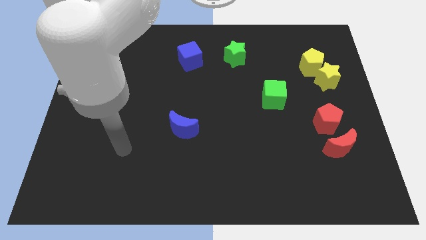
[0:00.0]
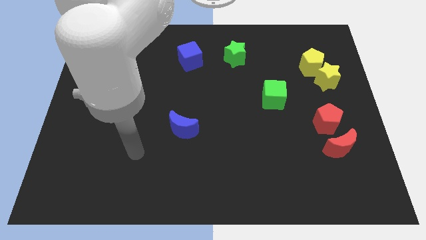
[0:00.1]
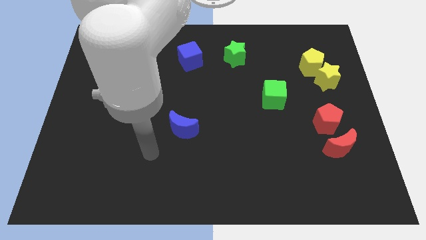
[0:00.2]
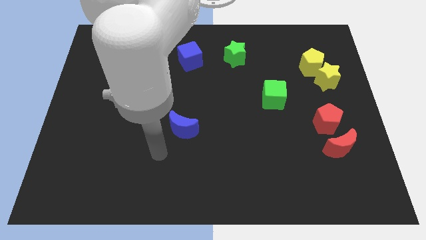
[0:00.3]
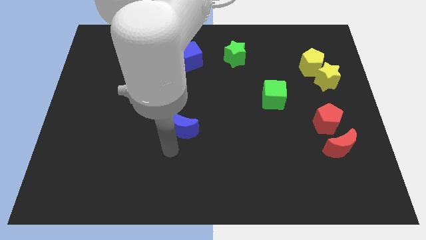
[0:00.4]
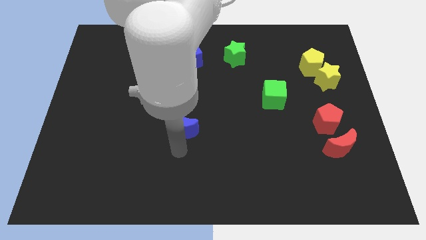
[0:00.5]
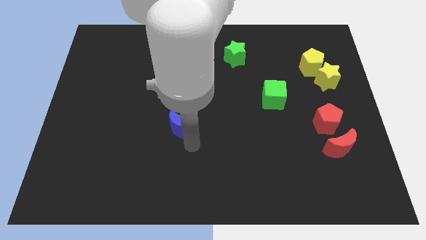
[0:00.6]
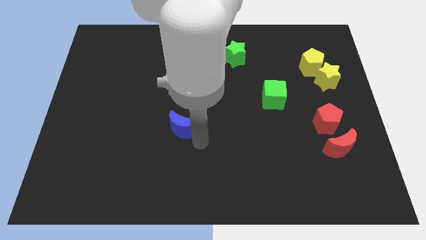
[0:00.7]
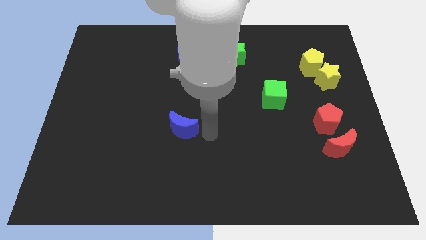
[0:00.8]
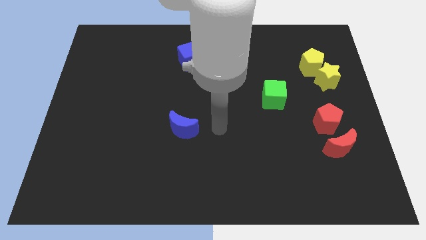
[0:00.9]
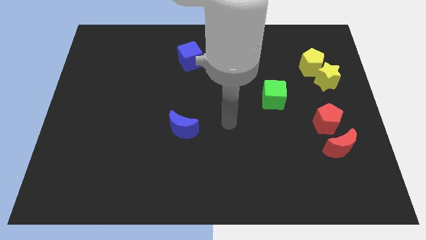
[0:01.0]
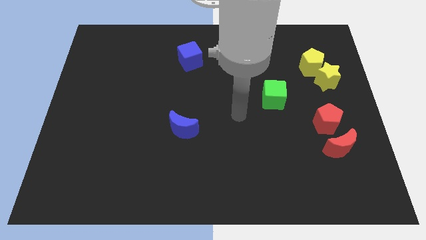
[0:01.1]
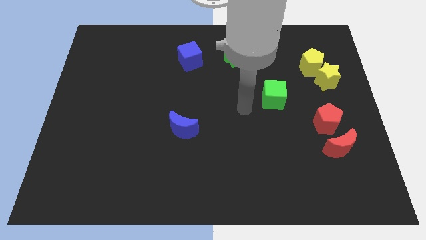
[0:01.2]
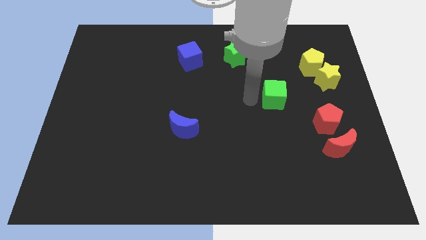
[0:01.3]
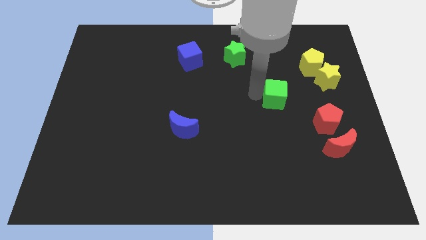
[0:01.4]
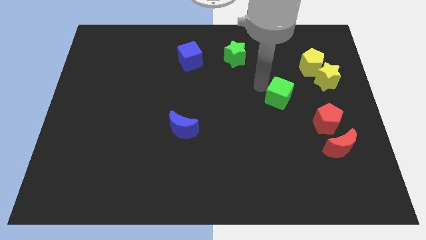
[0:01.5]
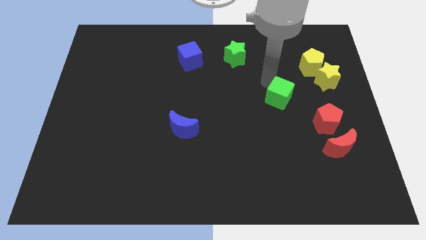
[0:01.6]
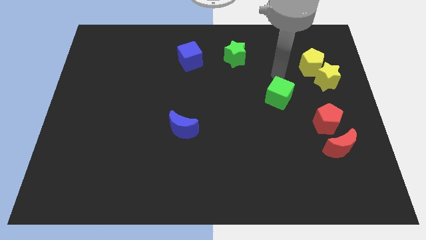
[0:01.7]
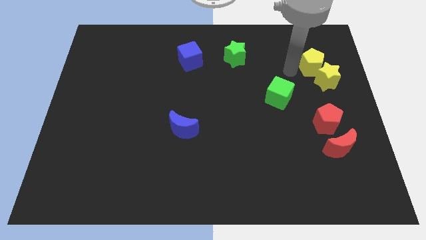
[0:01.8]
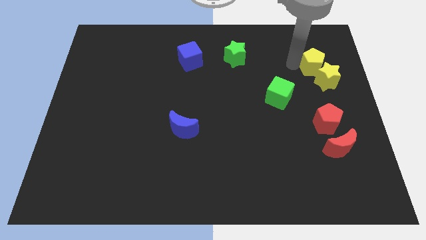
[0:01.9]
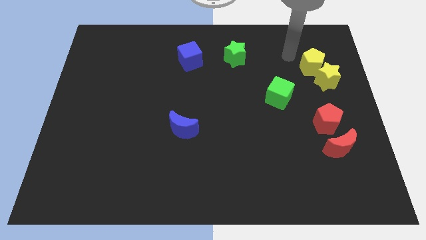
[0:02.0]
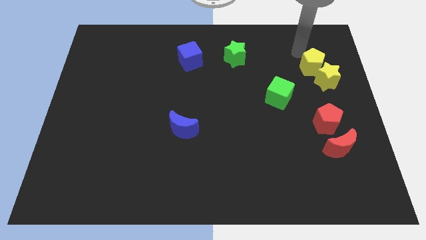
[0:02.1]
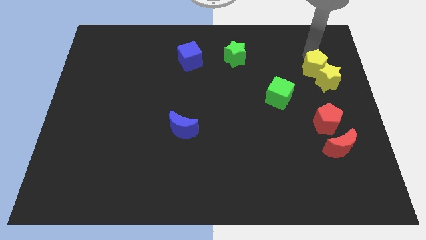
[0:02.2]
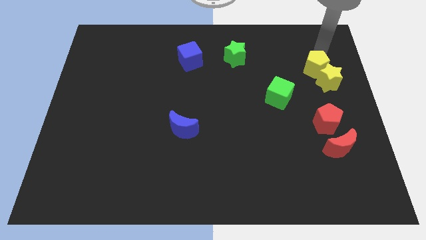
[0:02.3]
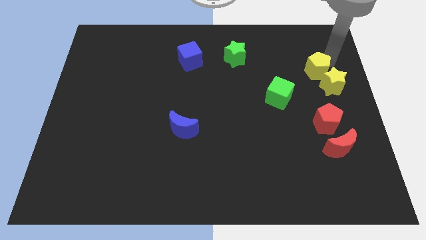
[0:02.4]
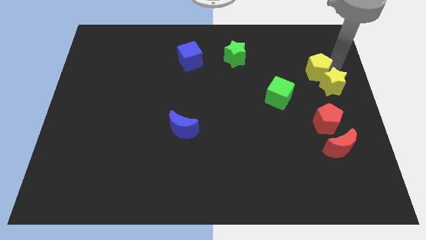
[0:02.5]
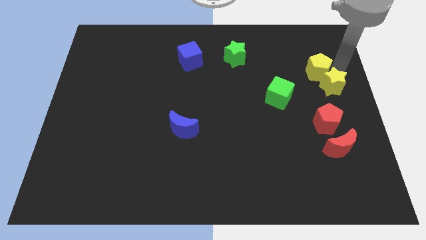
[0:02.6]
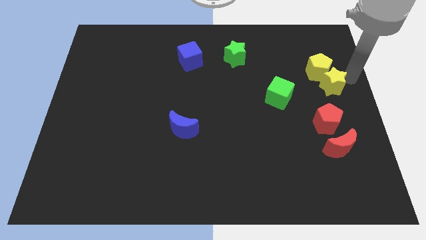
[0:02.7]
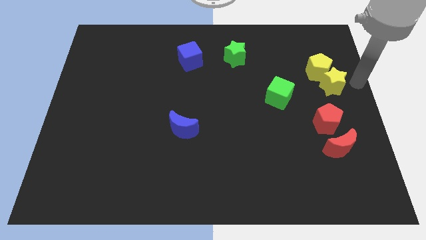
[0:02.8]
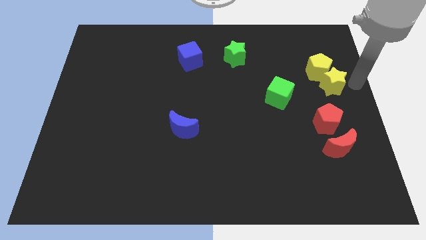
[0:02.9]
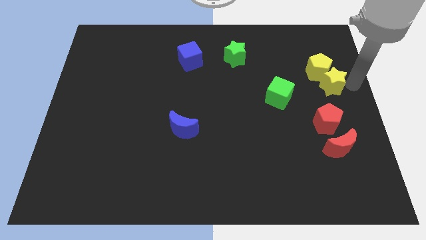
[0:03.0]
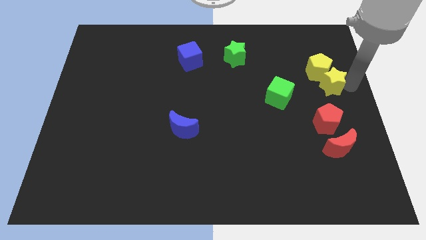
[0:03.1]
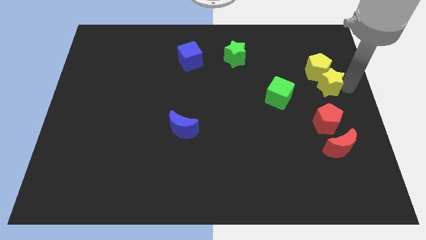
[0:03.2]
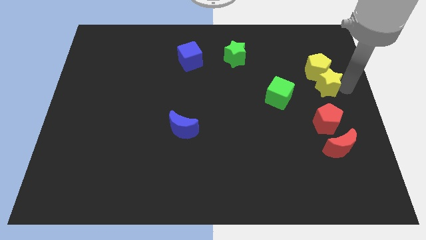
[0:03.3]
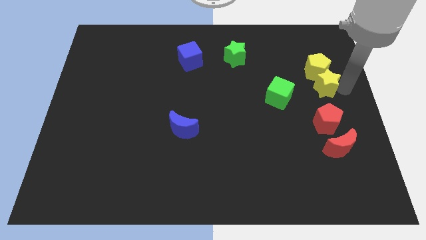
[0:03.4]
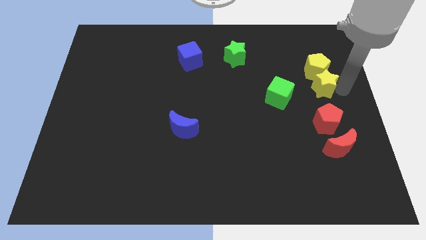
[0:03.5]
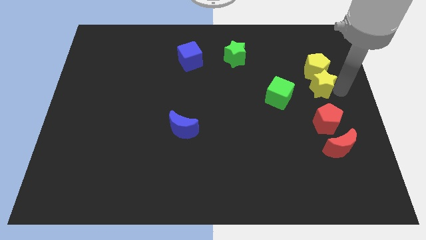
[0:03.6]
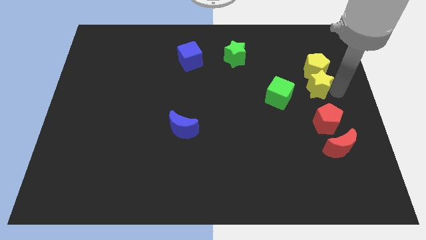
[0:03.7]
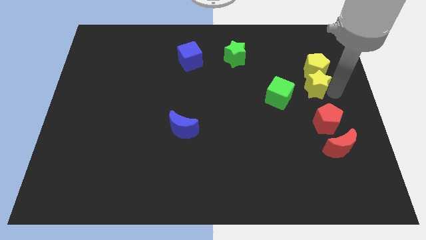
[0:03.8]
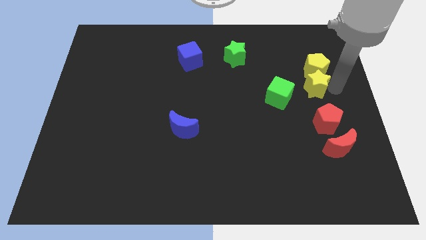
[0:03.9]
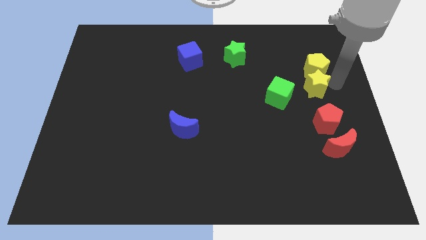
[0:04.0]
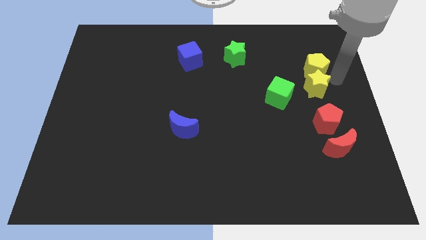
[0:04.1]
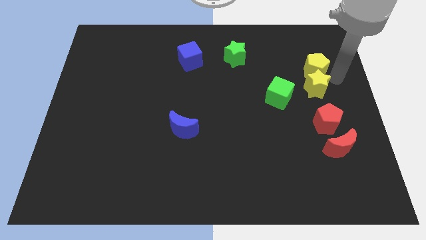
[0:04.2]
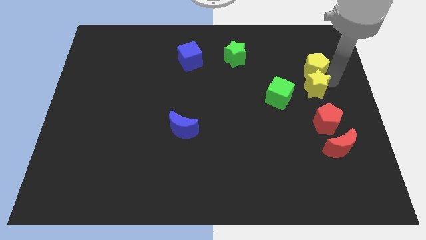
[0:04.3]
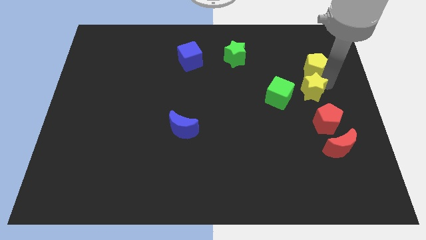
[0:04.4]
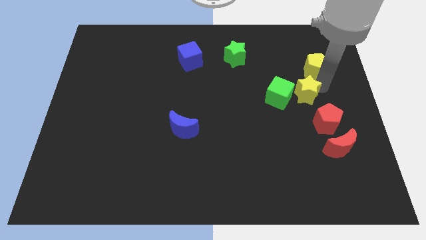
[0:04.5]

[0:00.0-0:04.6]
slightly push the yellow star downwards and to the left

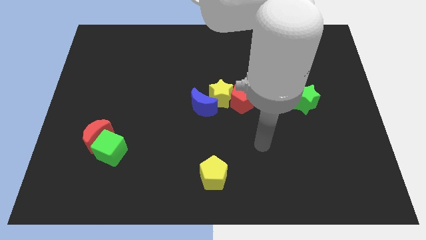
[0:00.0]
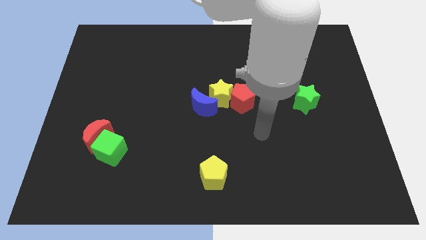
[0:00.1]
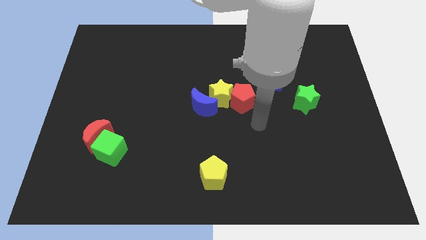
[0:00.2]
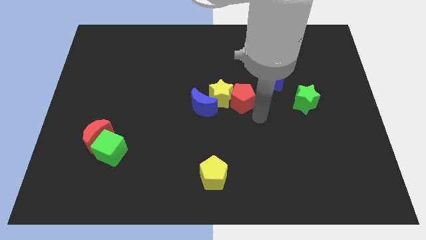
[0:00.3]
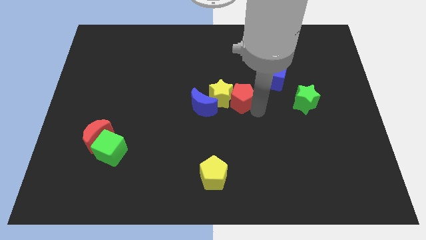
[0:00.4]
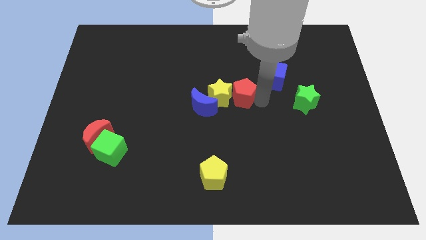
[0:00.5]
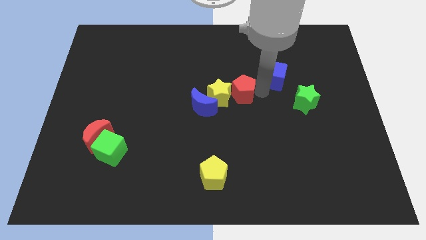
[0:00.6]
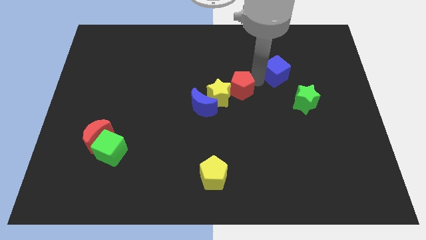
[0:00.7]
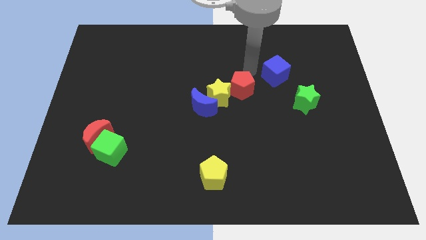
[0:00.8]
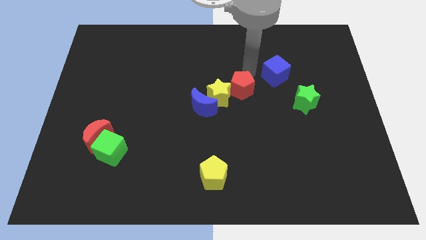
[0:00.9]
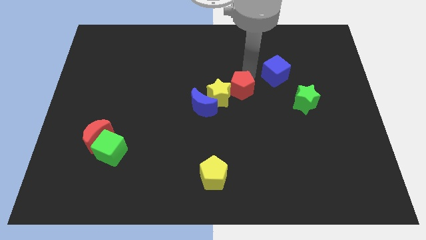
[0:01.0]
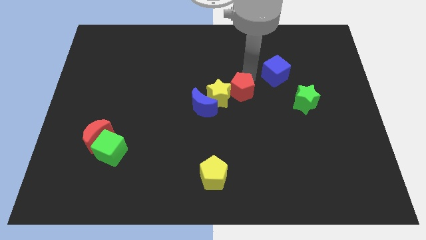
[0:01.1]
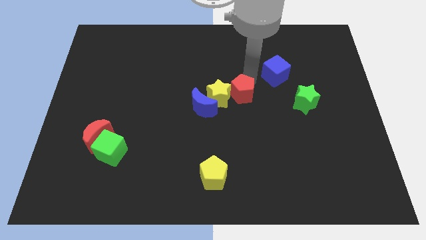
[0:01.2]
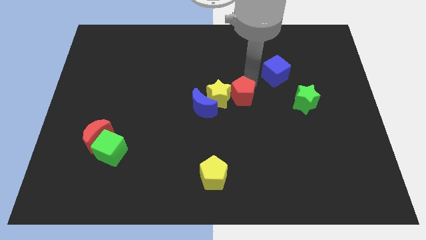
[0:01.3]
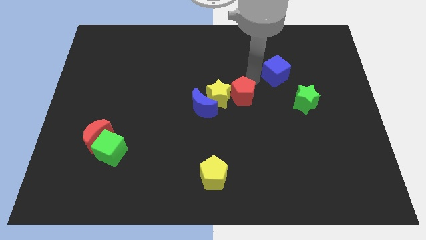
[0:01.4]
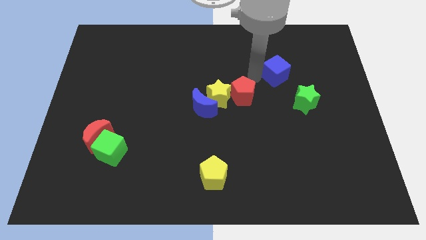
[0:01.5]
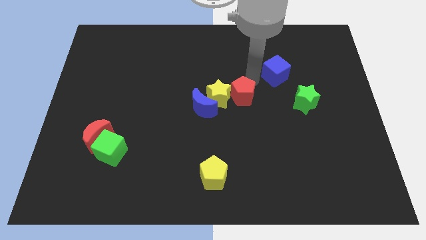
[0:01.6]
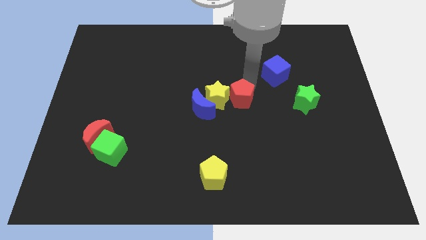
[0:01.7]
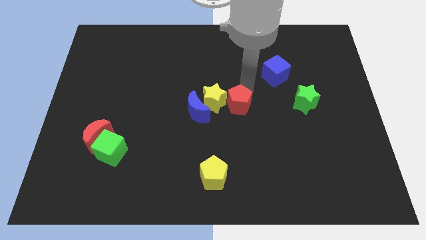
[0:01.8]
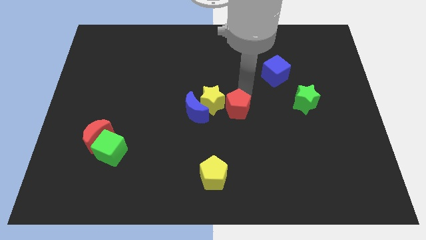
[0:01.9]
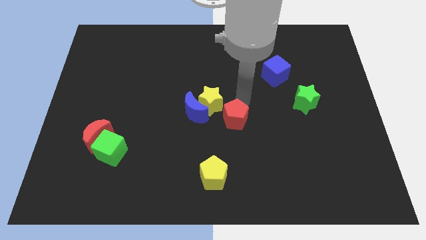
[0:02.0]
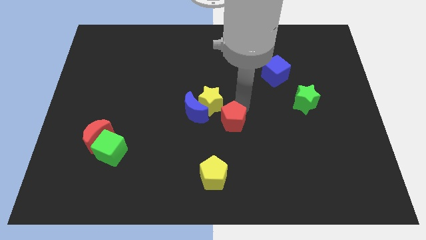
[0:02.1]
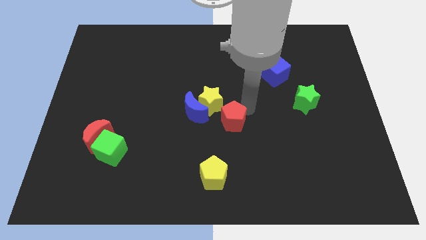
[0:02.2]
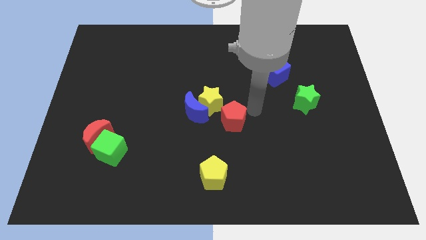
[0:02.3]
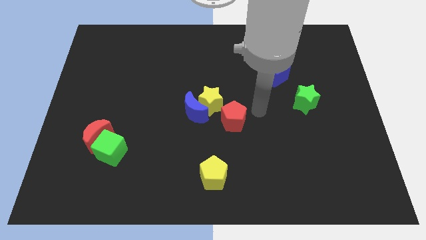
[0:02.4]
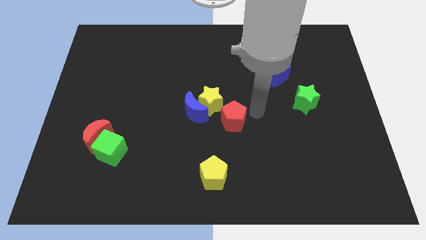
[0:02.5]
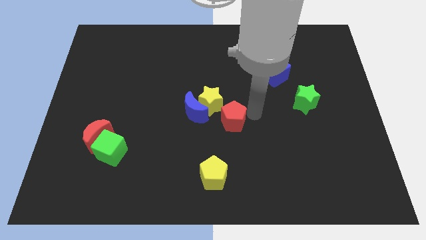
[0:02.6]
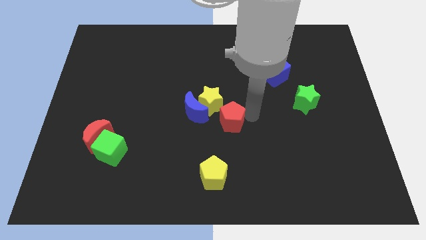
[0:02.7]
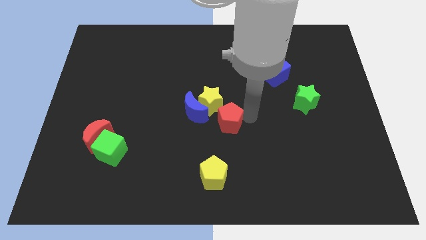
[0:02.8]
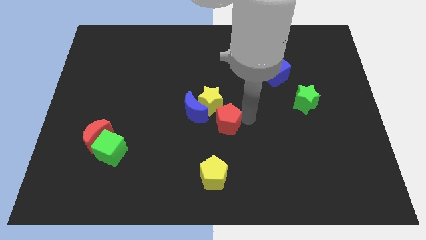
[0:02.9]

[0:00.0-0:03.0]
move the red pentagon somewhat down and then left

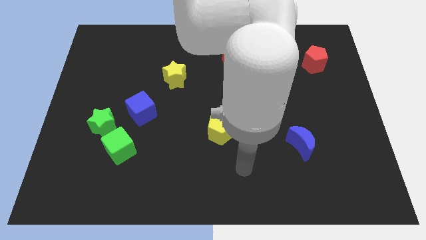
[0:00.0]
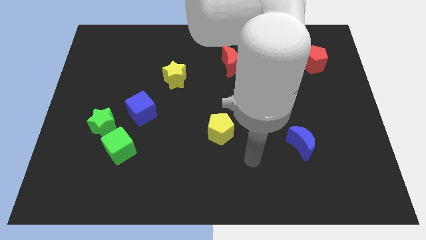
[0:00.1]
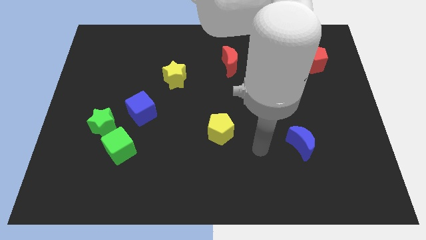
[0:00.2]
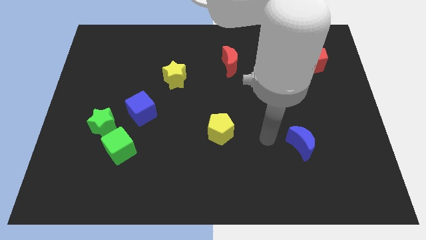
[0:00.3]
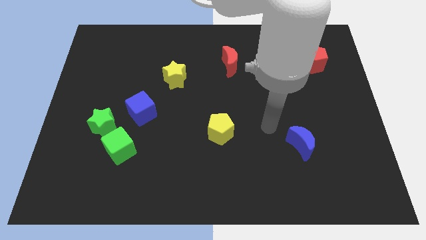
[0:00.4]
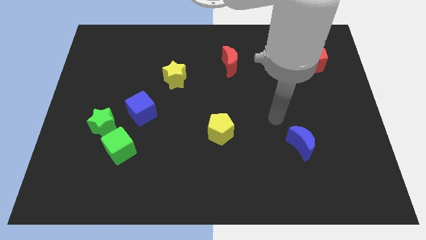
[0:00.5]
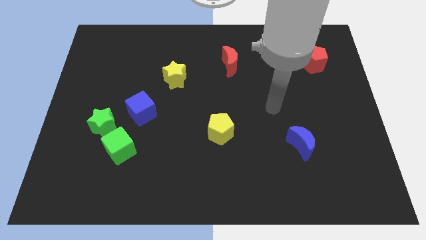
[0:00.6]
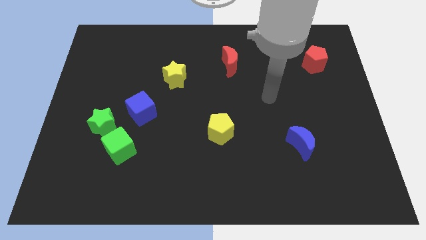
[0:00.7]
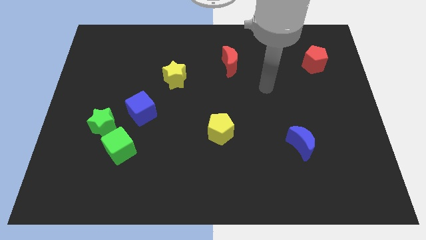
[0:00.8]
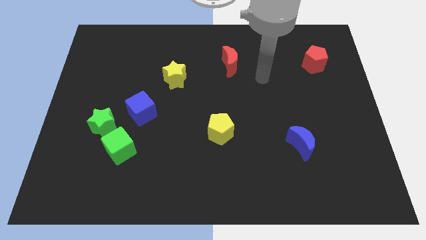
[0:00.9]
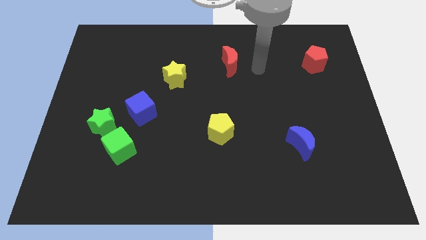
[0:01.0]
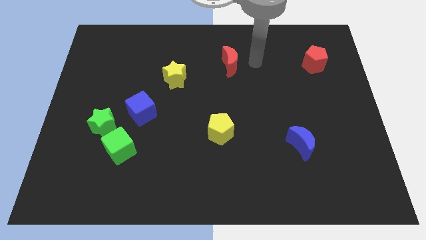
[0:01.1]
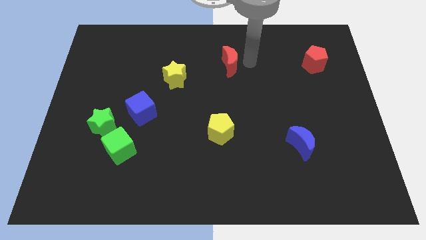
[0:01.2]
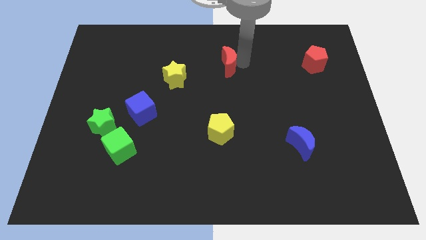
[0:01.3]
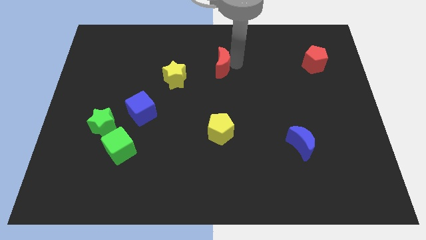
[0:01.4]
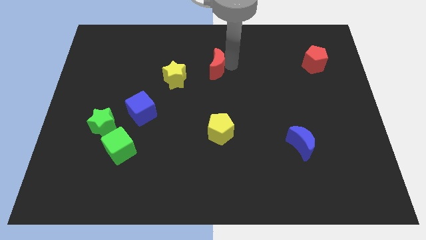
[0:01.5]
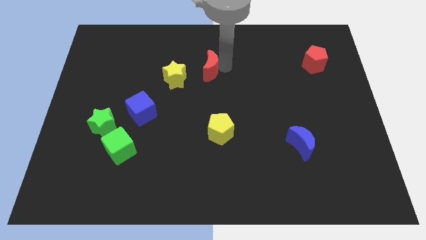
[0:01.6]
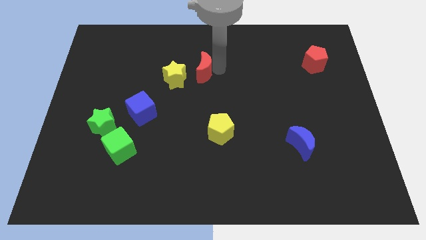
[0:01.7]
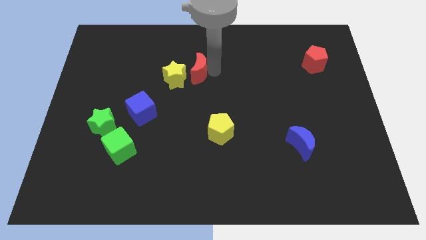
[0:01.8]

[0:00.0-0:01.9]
slightly slide the red moon to the left
